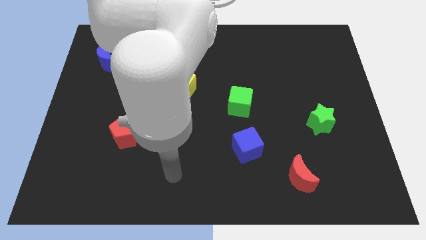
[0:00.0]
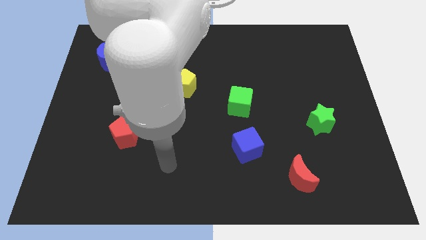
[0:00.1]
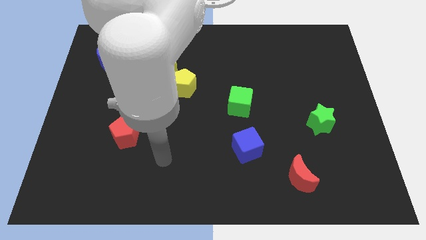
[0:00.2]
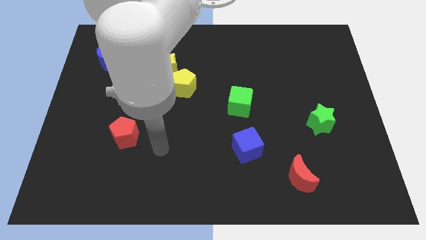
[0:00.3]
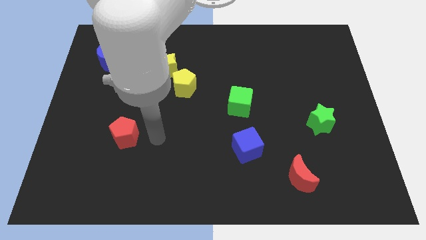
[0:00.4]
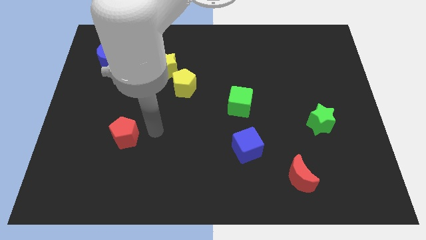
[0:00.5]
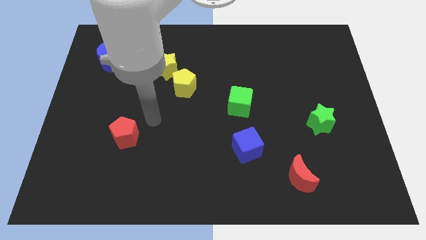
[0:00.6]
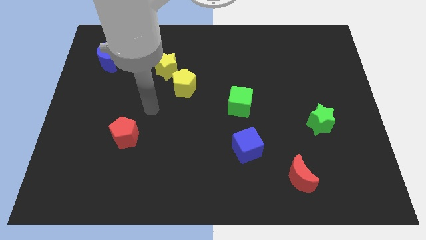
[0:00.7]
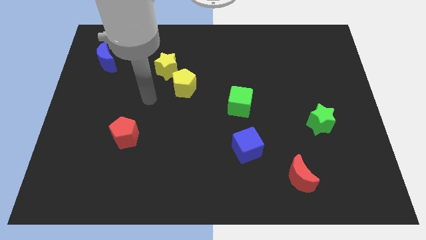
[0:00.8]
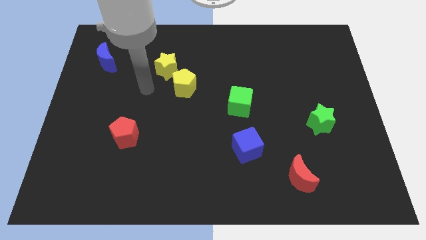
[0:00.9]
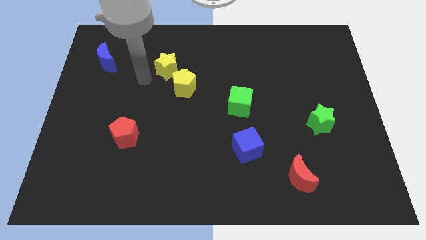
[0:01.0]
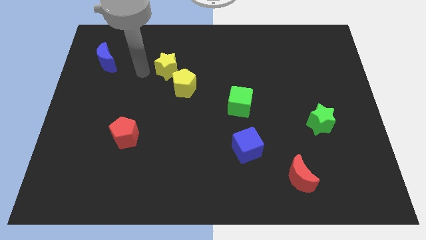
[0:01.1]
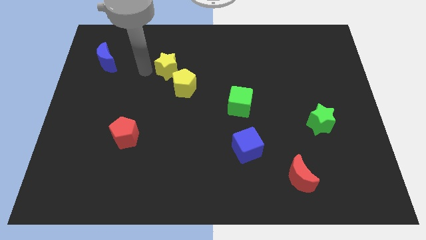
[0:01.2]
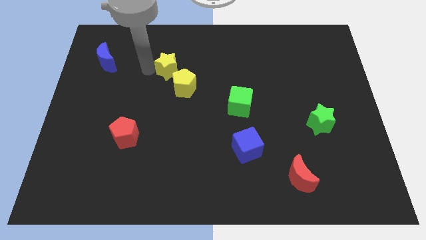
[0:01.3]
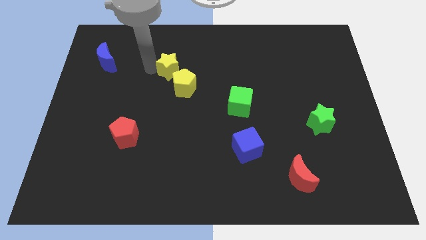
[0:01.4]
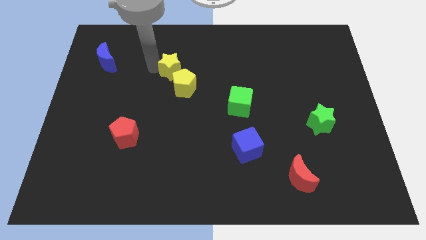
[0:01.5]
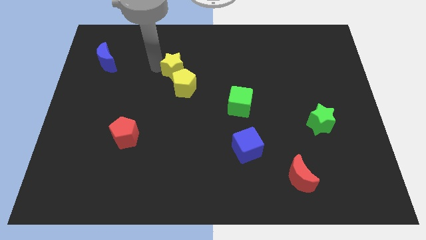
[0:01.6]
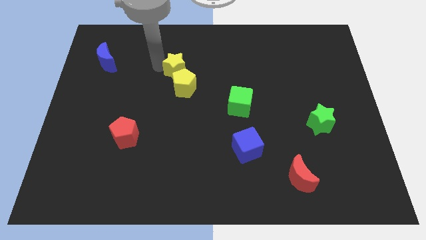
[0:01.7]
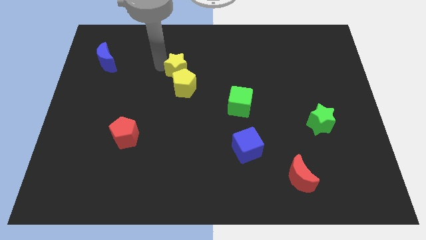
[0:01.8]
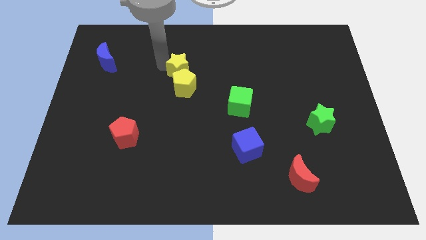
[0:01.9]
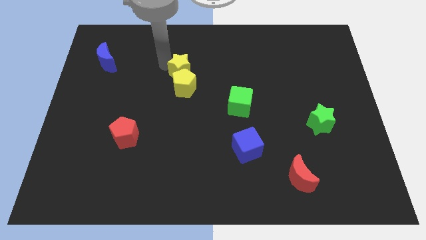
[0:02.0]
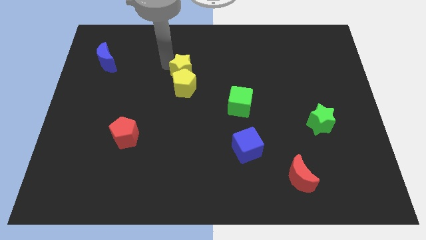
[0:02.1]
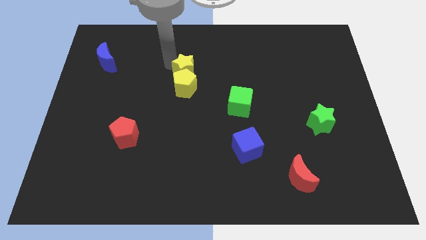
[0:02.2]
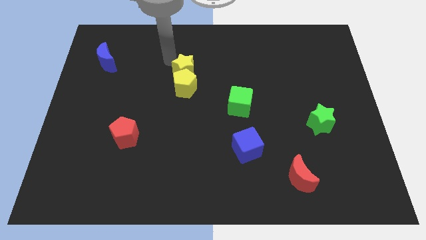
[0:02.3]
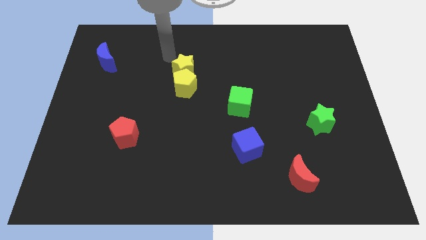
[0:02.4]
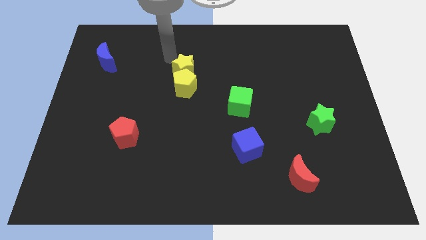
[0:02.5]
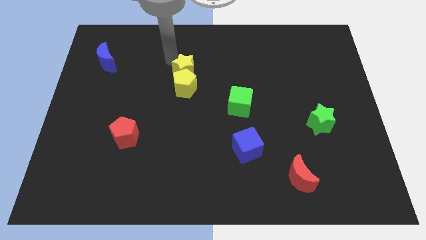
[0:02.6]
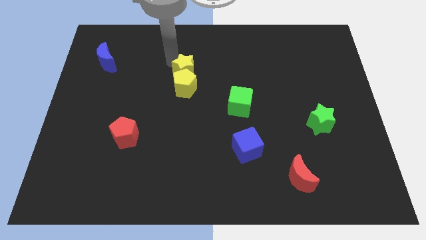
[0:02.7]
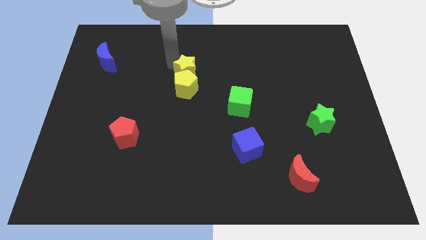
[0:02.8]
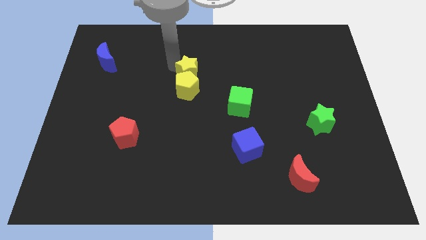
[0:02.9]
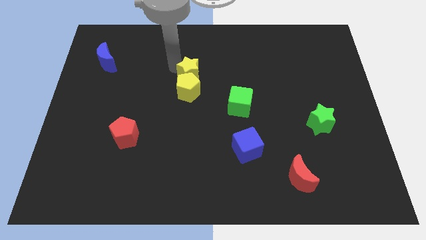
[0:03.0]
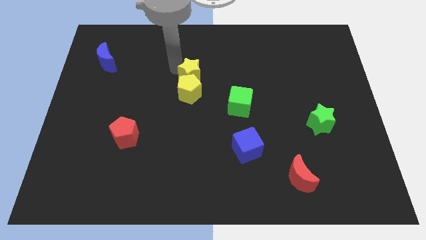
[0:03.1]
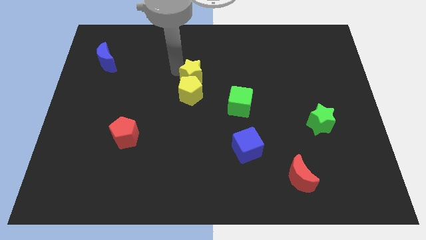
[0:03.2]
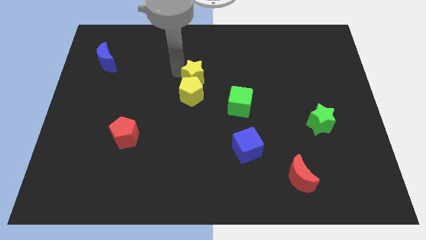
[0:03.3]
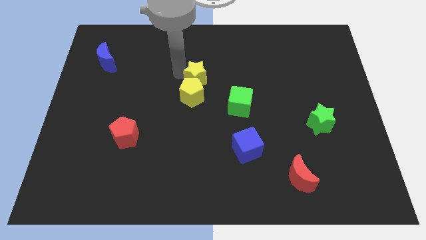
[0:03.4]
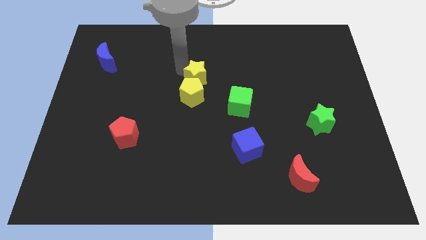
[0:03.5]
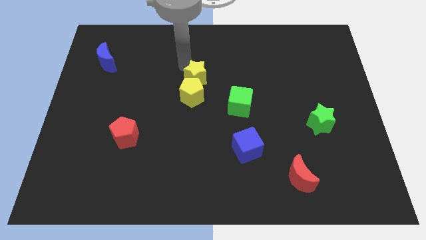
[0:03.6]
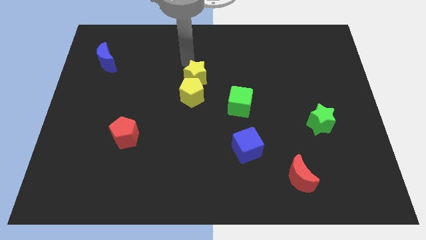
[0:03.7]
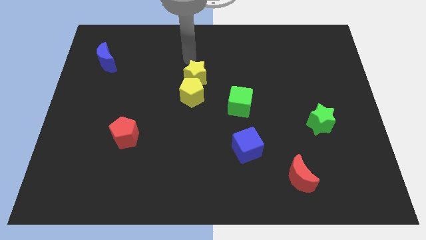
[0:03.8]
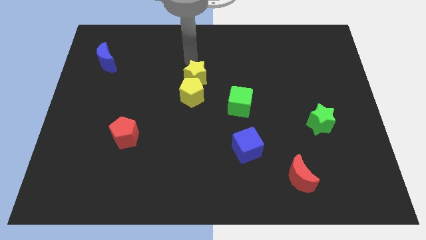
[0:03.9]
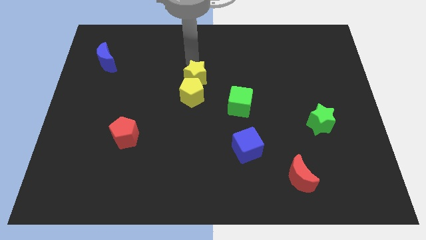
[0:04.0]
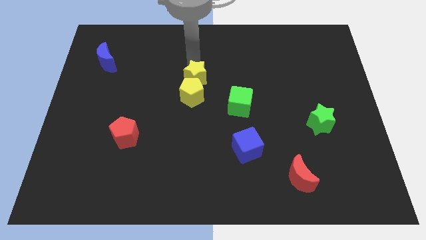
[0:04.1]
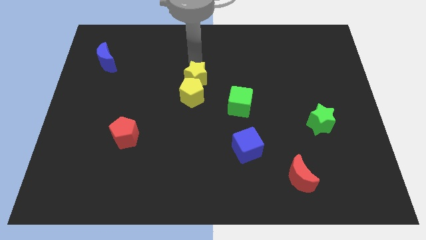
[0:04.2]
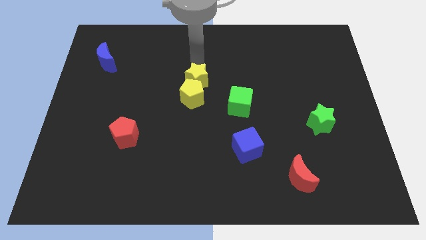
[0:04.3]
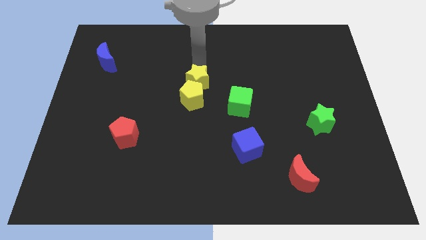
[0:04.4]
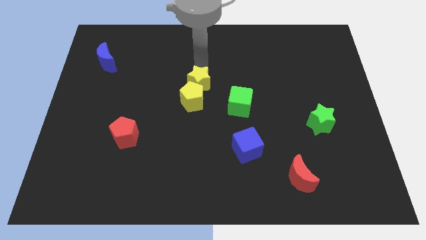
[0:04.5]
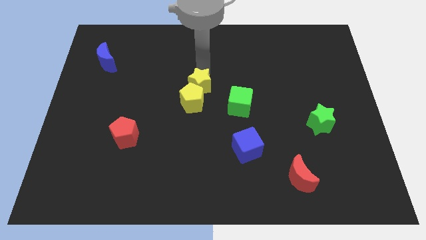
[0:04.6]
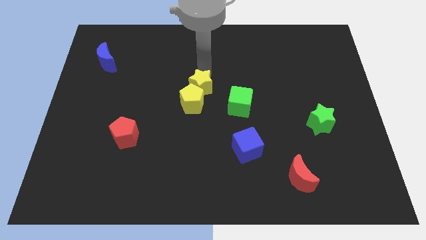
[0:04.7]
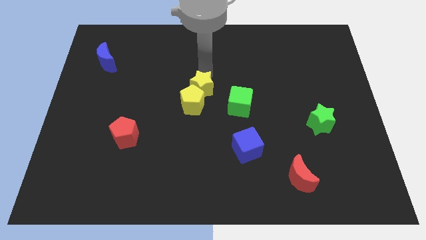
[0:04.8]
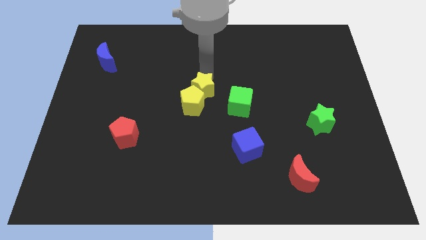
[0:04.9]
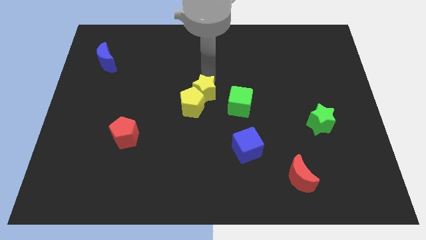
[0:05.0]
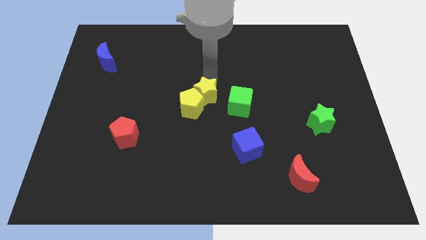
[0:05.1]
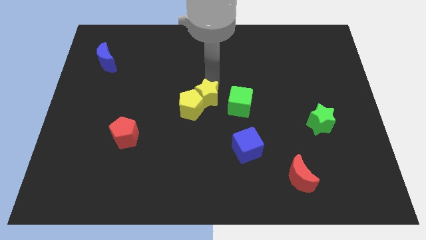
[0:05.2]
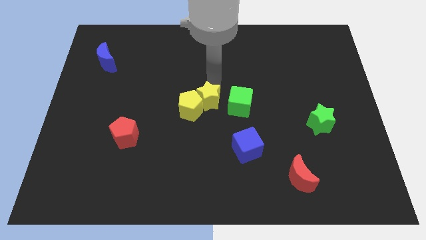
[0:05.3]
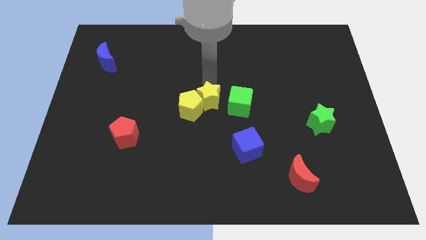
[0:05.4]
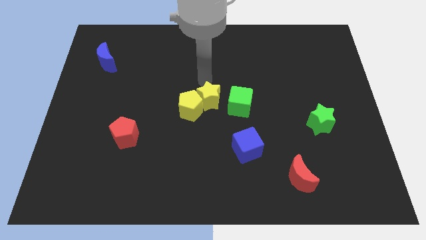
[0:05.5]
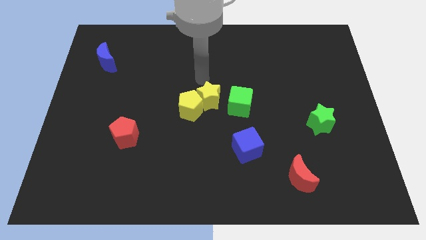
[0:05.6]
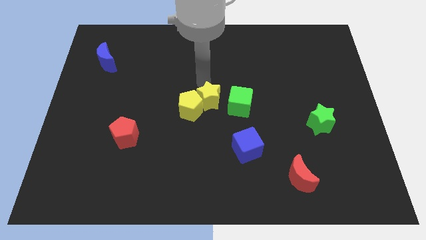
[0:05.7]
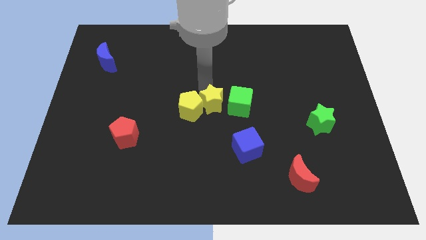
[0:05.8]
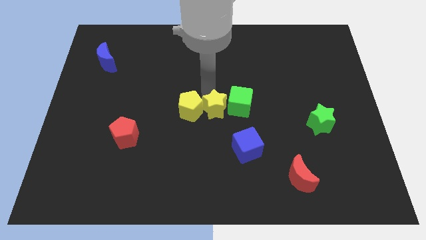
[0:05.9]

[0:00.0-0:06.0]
move the yellow star to the bottom left side of the green cube

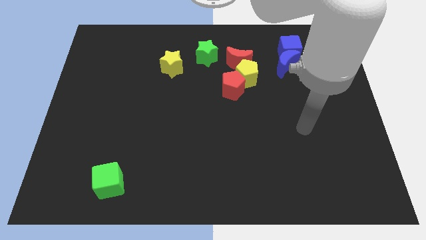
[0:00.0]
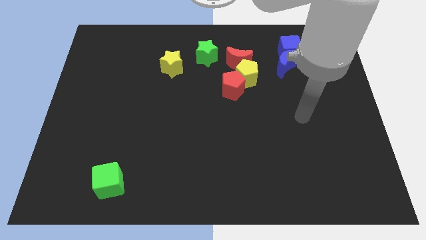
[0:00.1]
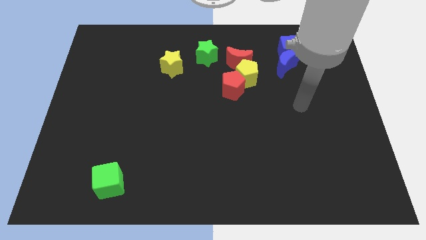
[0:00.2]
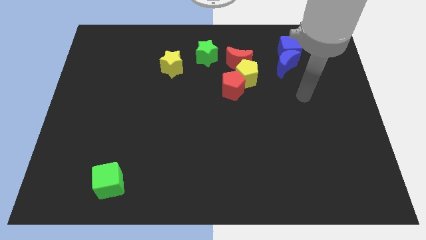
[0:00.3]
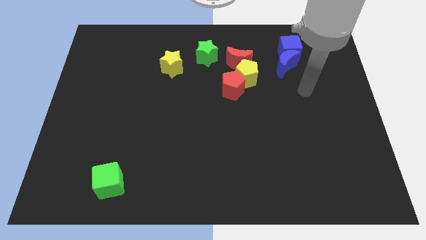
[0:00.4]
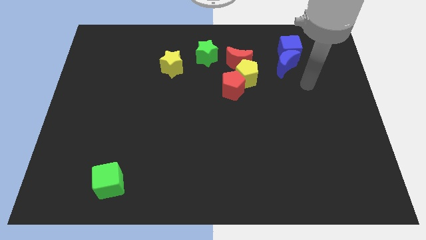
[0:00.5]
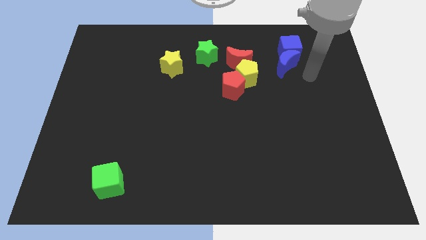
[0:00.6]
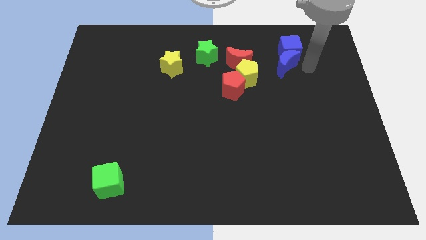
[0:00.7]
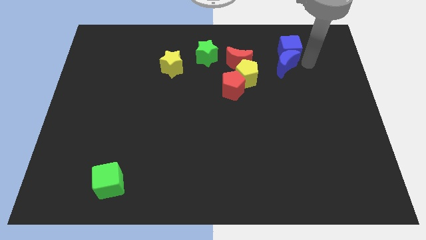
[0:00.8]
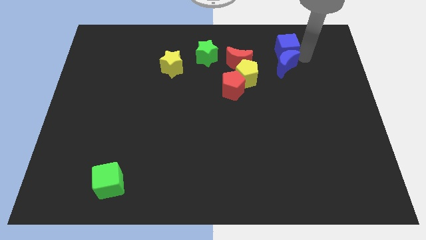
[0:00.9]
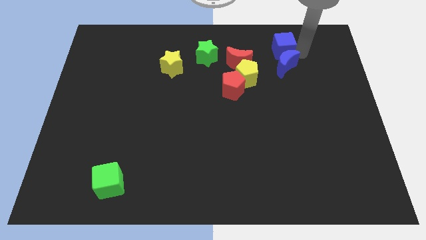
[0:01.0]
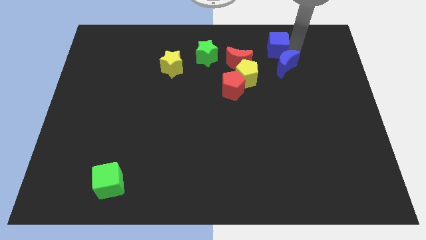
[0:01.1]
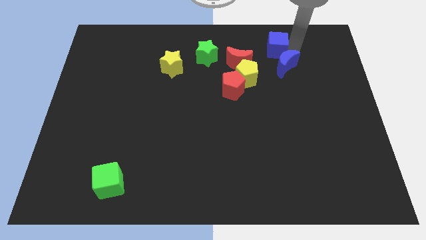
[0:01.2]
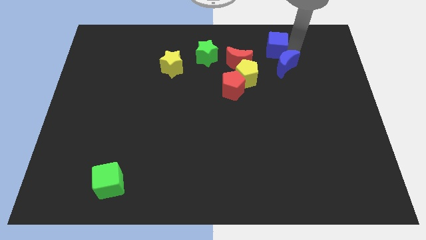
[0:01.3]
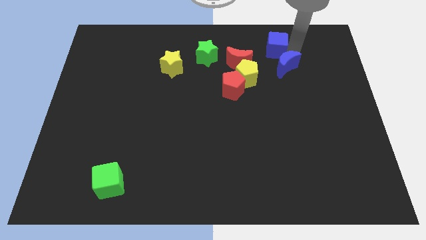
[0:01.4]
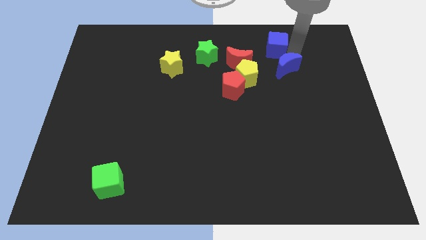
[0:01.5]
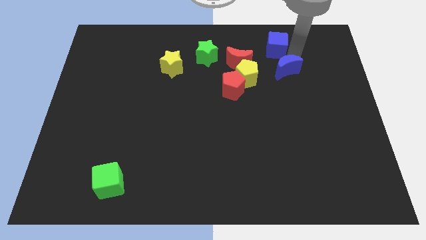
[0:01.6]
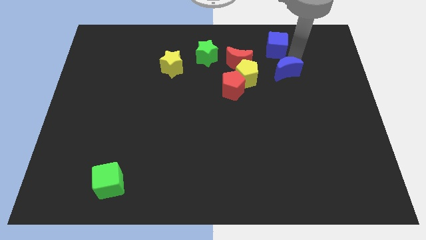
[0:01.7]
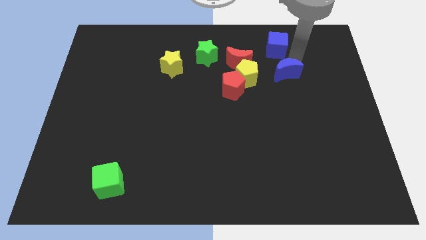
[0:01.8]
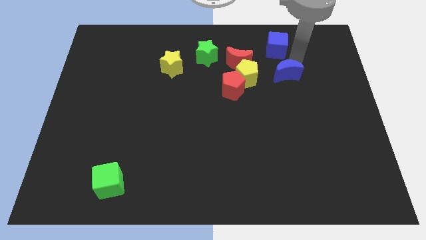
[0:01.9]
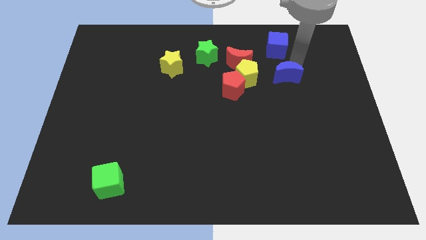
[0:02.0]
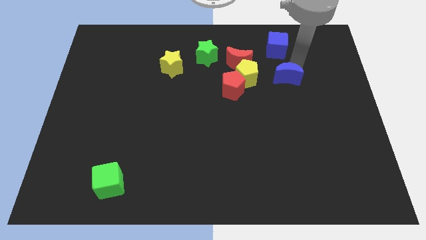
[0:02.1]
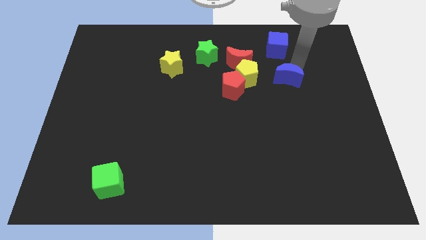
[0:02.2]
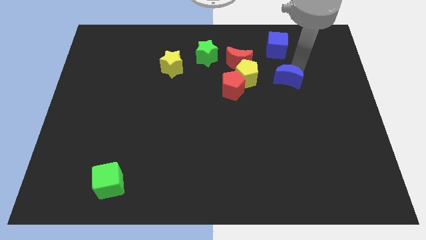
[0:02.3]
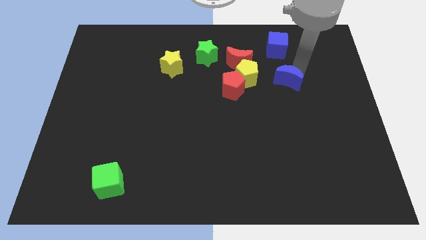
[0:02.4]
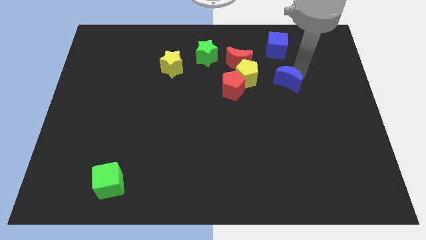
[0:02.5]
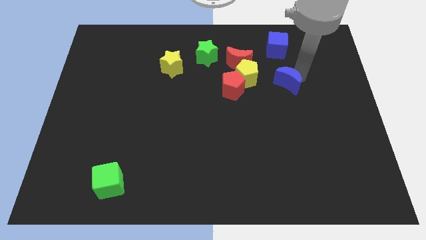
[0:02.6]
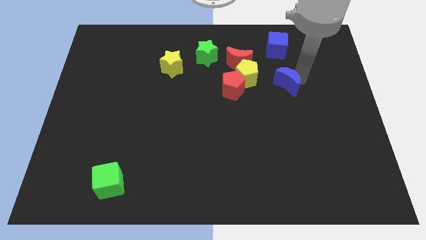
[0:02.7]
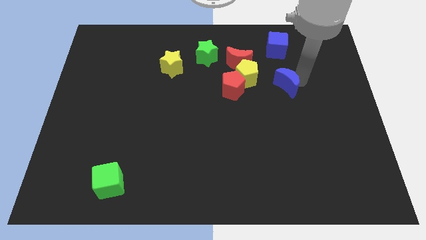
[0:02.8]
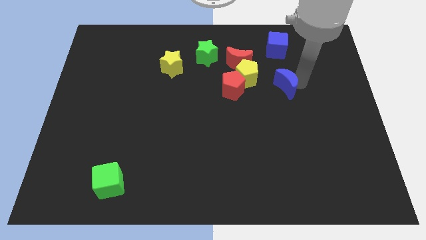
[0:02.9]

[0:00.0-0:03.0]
push the blue moon diagonally down and to the right of the yellow pentagon
